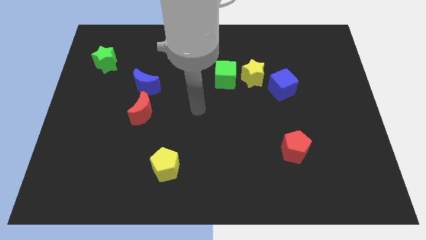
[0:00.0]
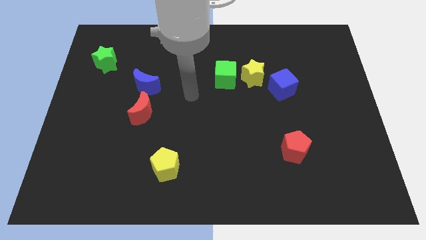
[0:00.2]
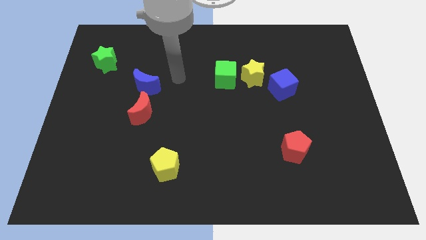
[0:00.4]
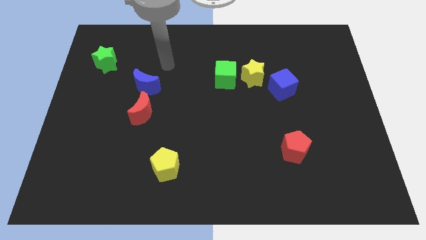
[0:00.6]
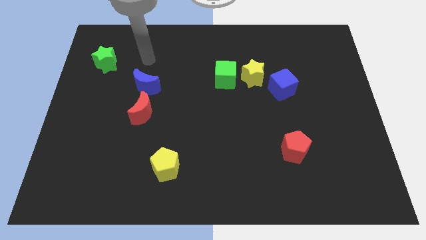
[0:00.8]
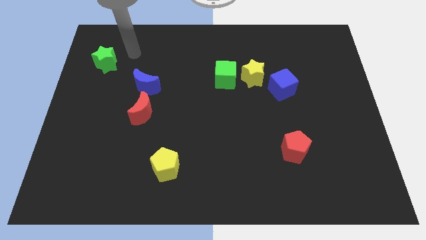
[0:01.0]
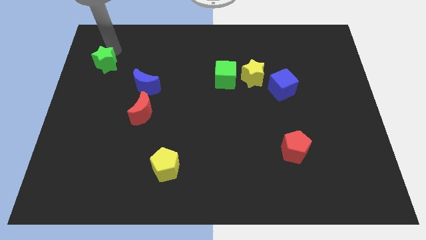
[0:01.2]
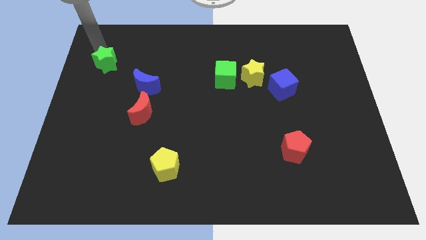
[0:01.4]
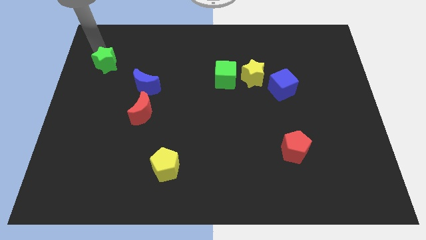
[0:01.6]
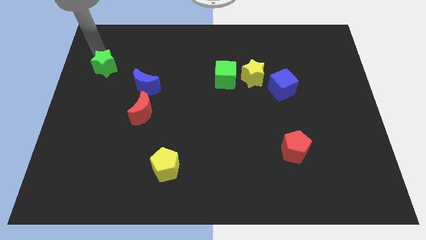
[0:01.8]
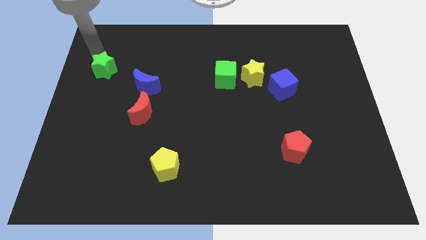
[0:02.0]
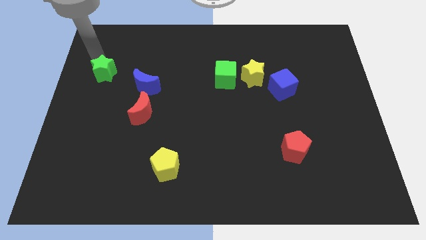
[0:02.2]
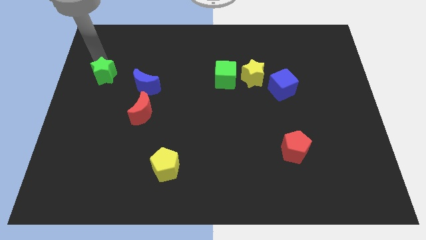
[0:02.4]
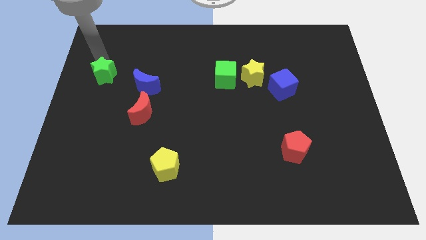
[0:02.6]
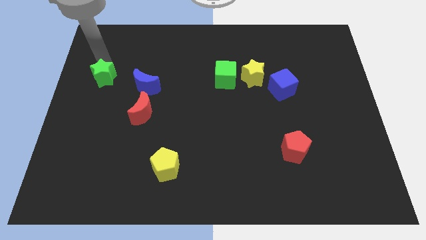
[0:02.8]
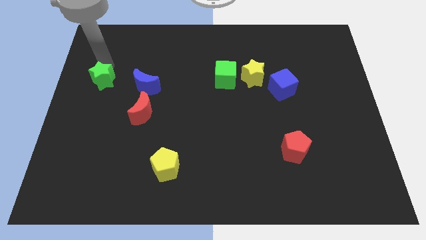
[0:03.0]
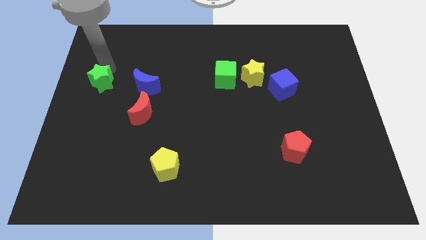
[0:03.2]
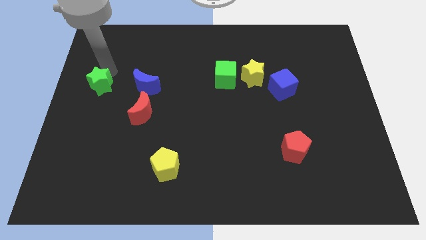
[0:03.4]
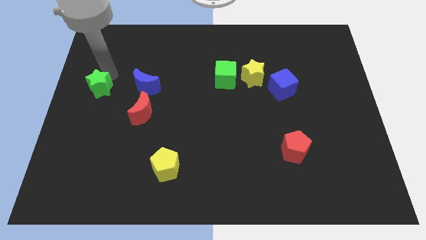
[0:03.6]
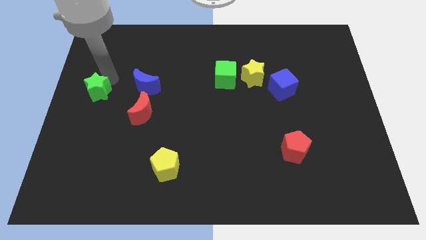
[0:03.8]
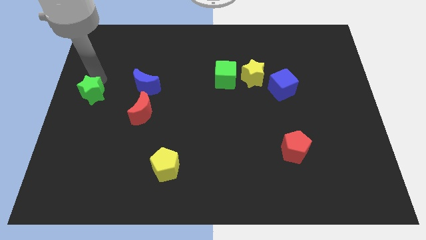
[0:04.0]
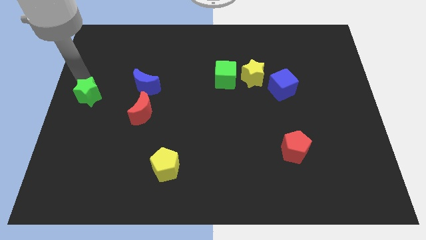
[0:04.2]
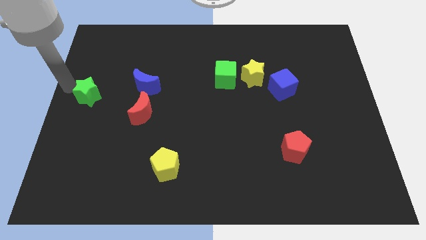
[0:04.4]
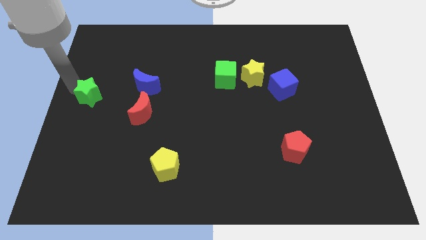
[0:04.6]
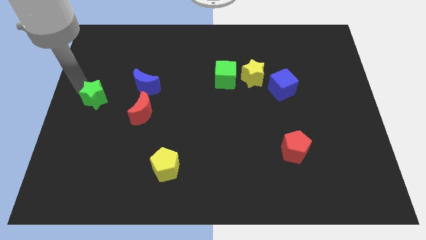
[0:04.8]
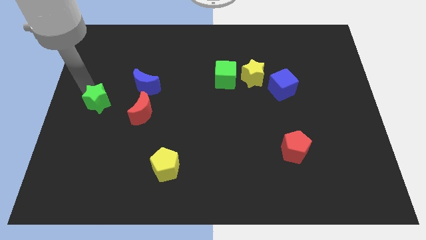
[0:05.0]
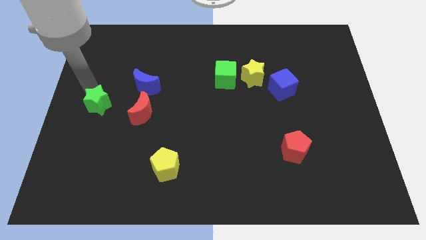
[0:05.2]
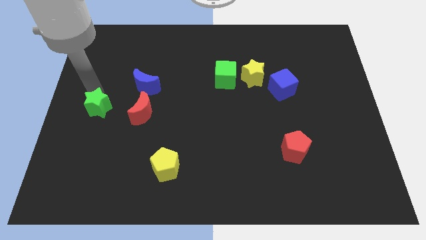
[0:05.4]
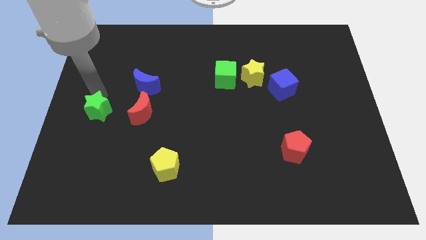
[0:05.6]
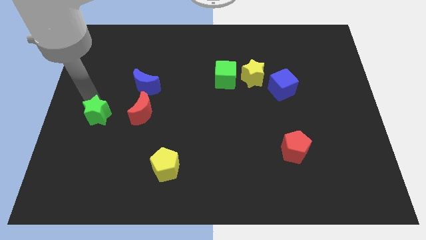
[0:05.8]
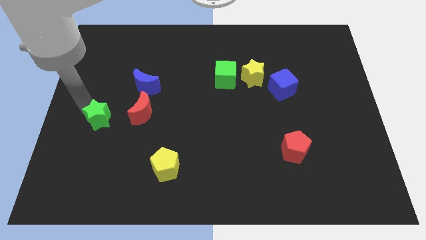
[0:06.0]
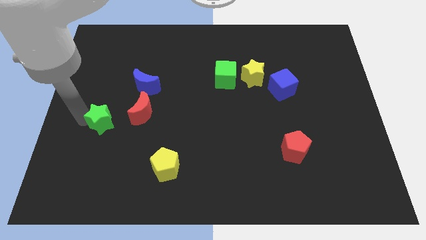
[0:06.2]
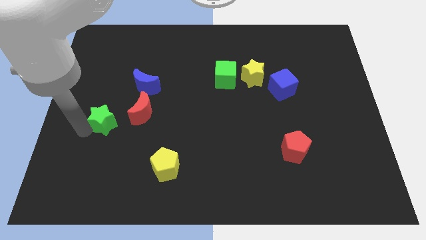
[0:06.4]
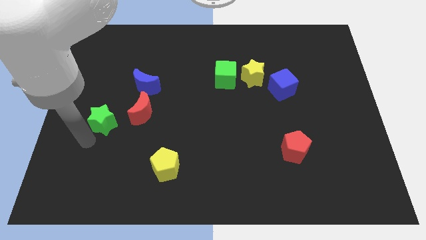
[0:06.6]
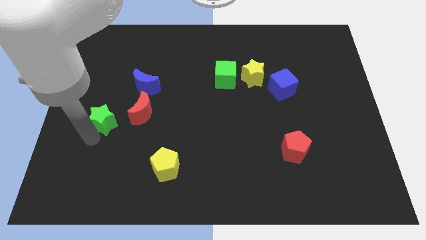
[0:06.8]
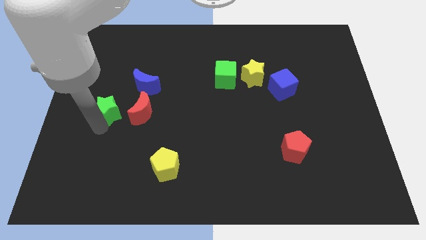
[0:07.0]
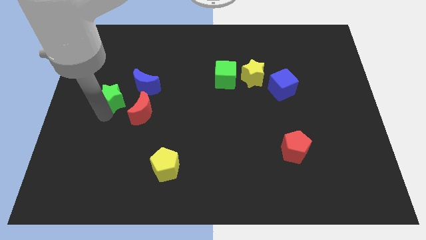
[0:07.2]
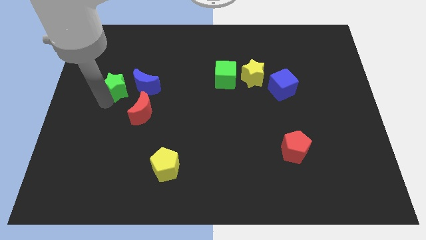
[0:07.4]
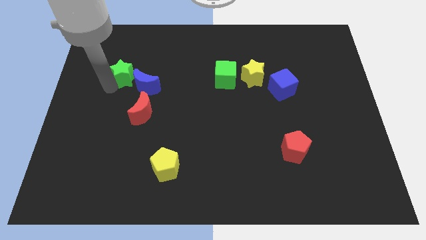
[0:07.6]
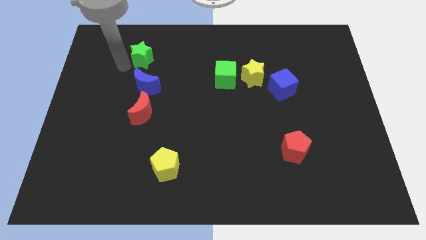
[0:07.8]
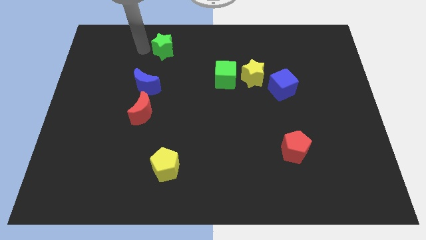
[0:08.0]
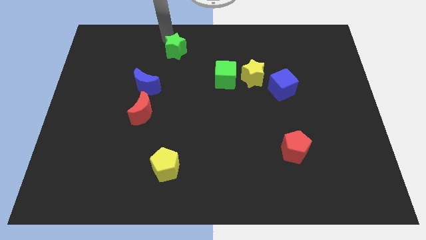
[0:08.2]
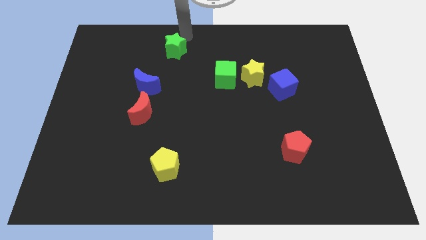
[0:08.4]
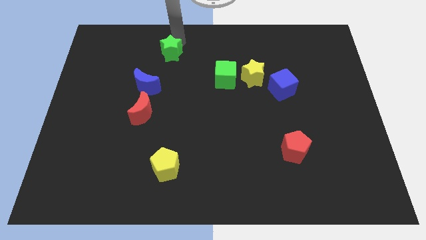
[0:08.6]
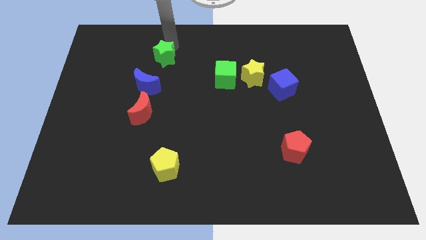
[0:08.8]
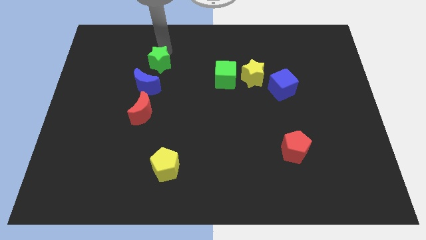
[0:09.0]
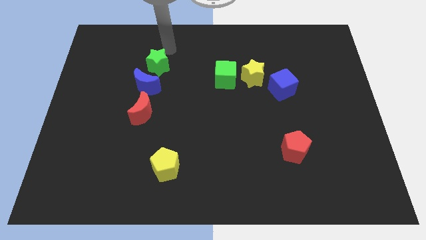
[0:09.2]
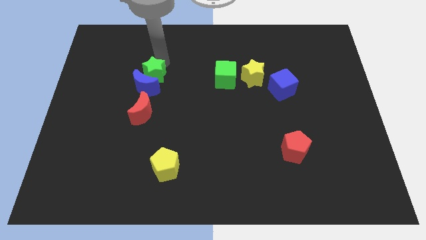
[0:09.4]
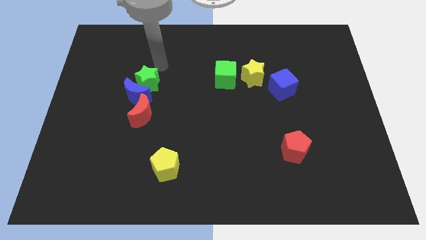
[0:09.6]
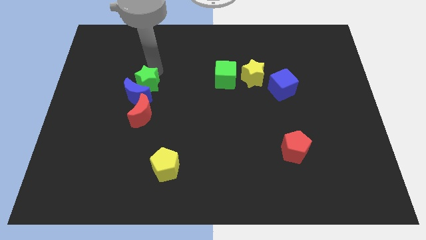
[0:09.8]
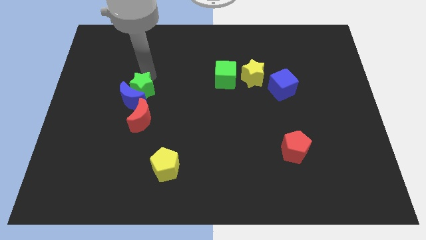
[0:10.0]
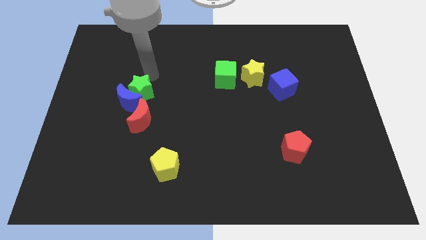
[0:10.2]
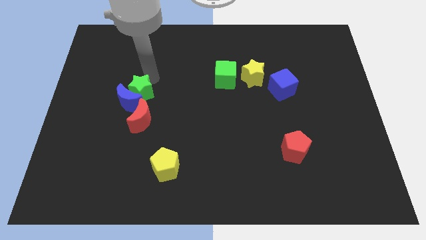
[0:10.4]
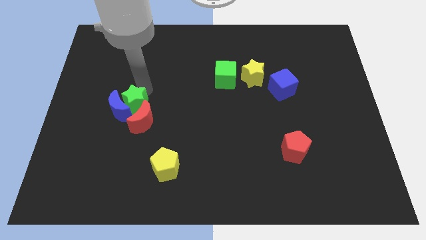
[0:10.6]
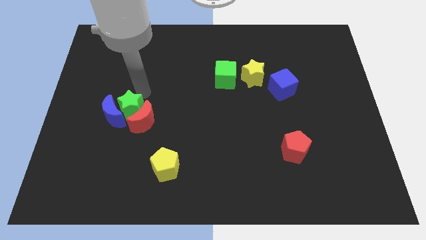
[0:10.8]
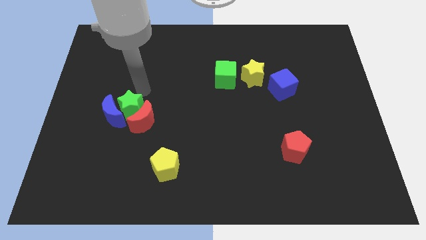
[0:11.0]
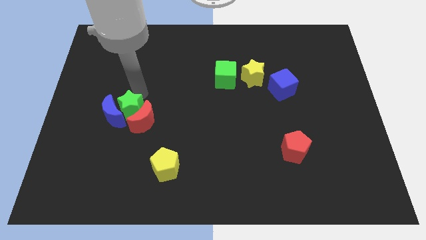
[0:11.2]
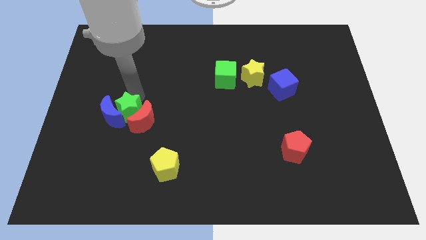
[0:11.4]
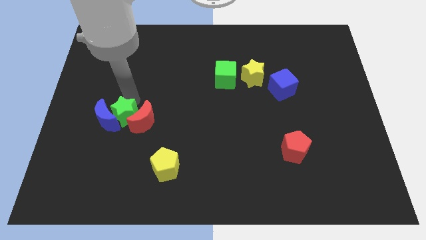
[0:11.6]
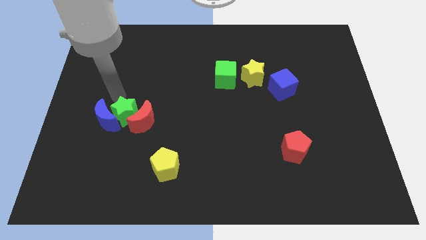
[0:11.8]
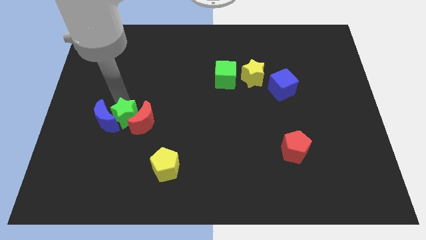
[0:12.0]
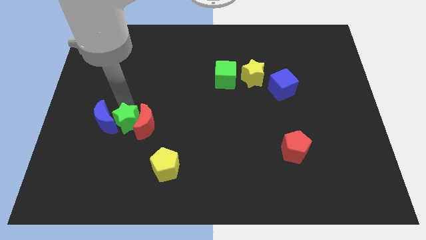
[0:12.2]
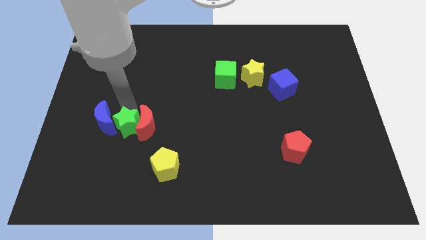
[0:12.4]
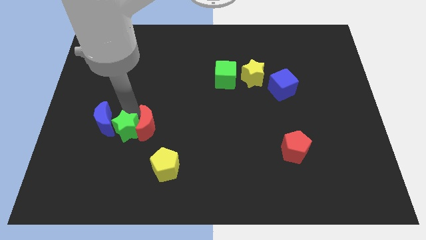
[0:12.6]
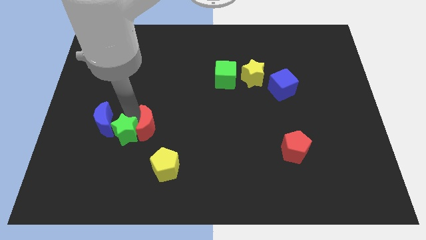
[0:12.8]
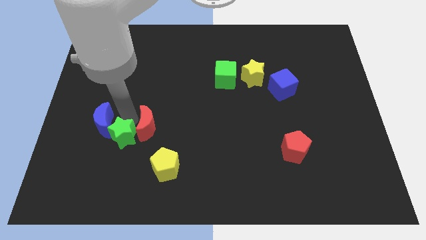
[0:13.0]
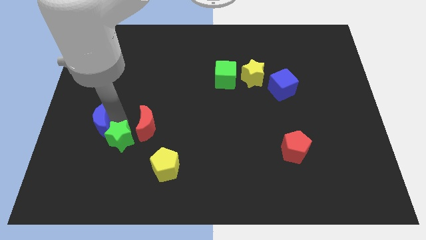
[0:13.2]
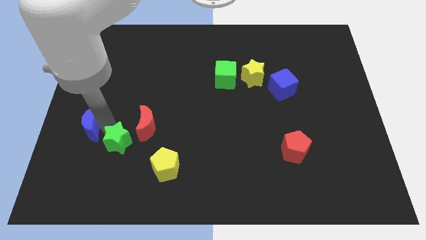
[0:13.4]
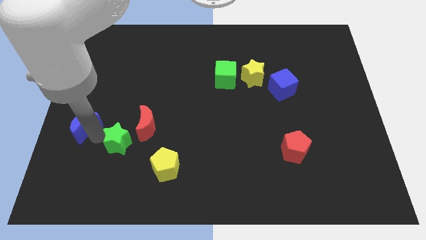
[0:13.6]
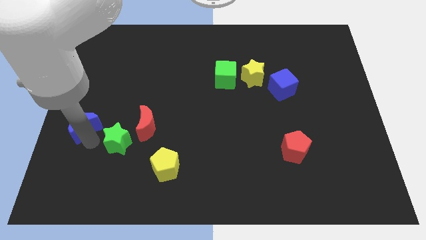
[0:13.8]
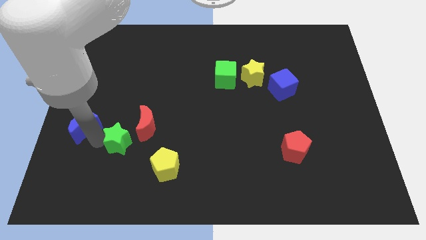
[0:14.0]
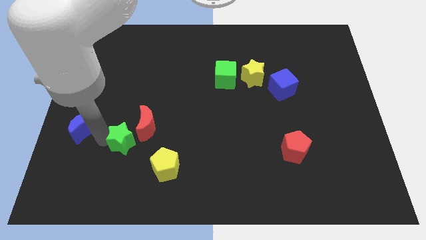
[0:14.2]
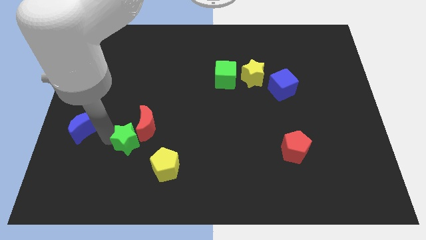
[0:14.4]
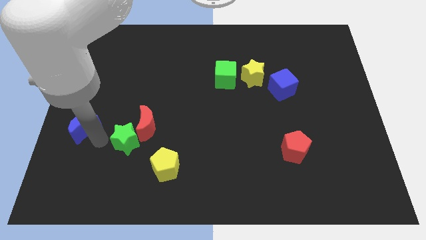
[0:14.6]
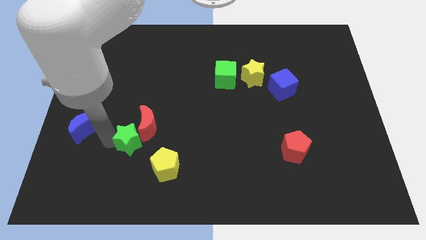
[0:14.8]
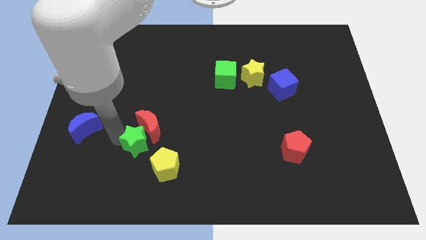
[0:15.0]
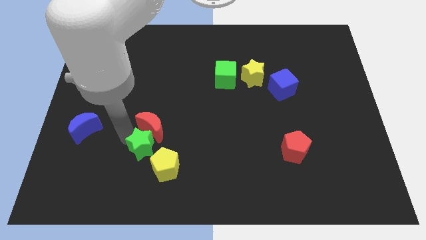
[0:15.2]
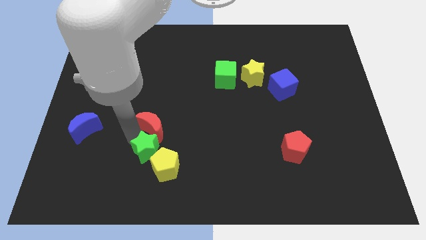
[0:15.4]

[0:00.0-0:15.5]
push the green star to the yellow pentagon
